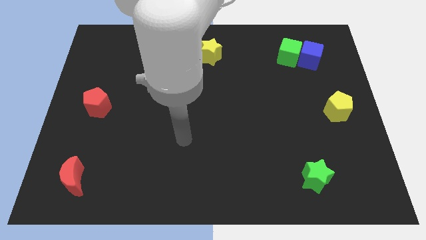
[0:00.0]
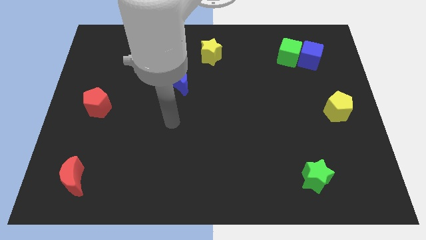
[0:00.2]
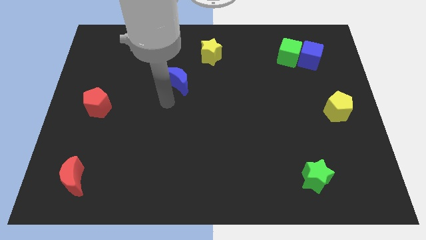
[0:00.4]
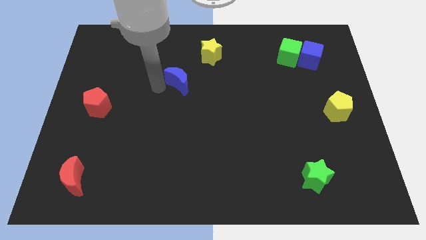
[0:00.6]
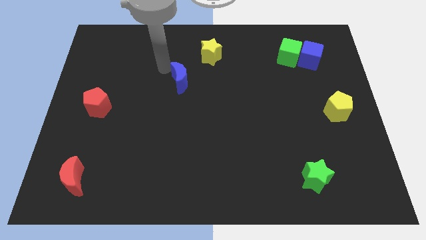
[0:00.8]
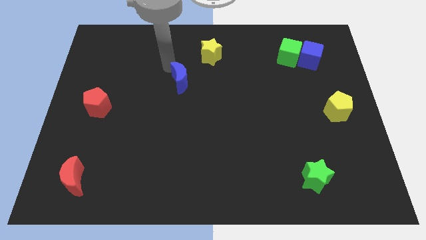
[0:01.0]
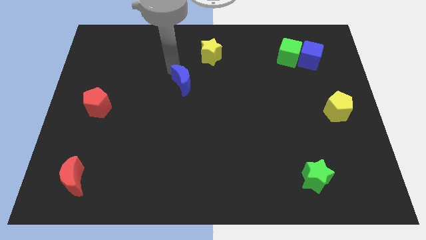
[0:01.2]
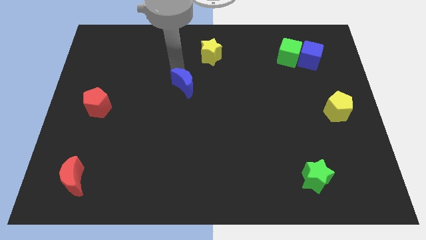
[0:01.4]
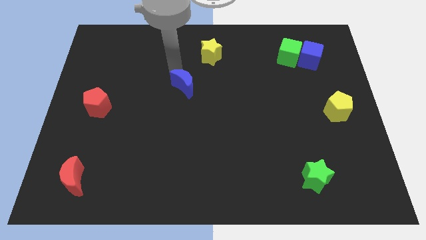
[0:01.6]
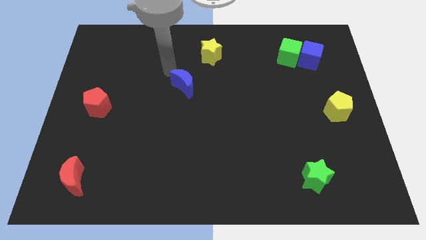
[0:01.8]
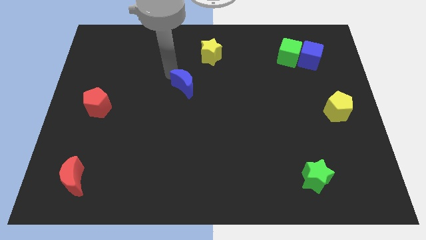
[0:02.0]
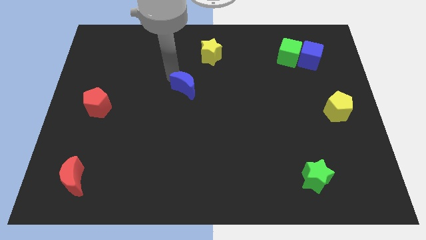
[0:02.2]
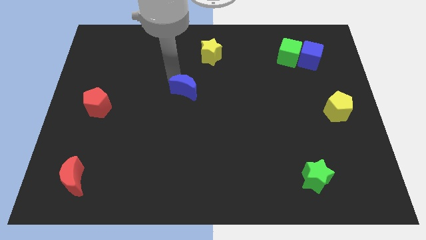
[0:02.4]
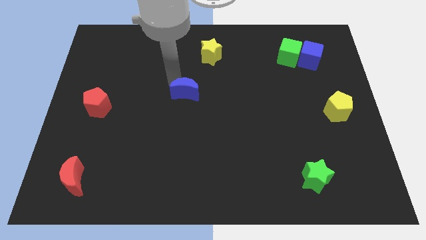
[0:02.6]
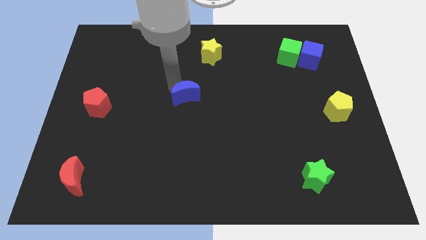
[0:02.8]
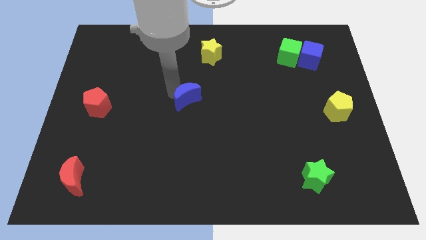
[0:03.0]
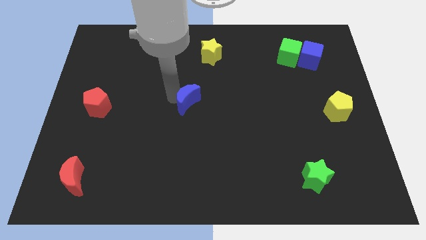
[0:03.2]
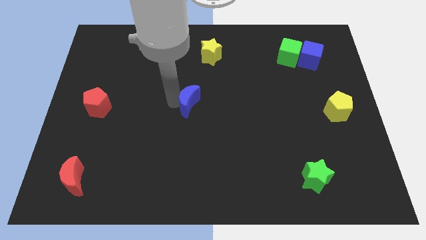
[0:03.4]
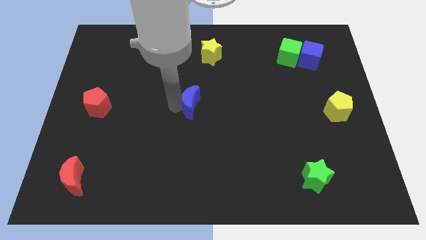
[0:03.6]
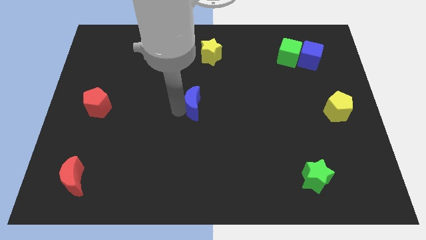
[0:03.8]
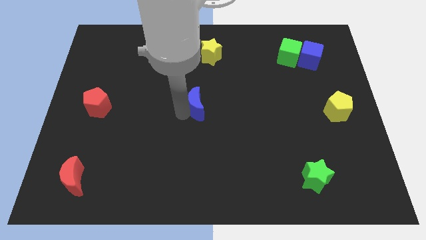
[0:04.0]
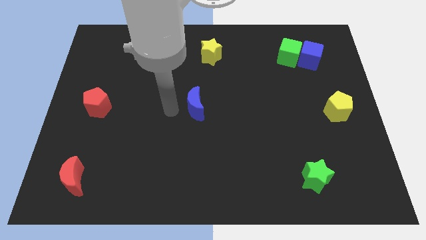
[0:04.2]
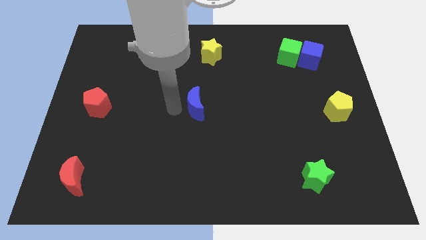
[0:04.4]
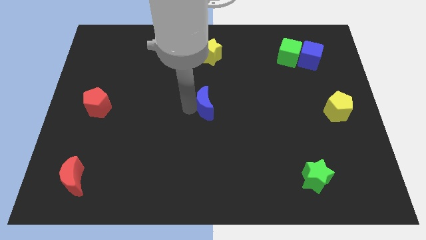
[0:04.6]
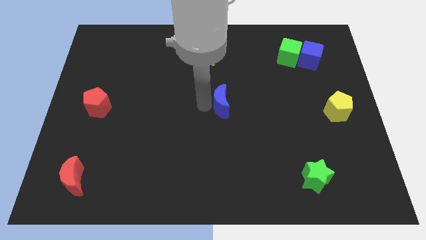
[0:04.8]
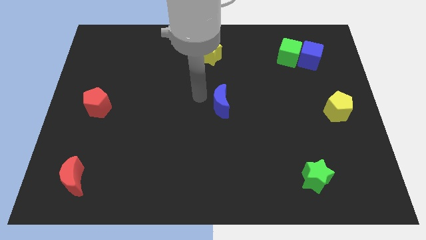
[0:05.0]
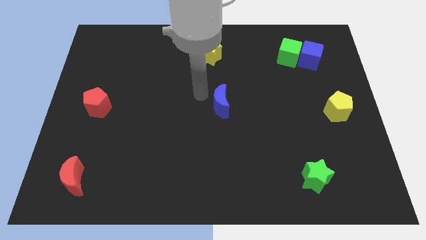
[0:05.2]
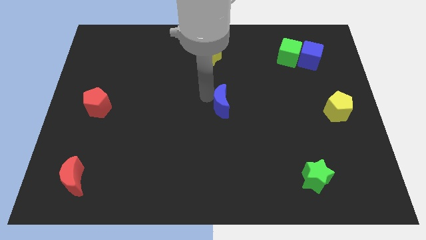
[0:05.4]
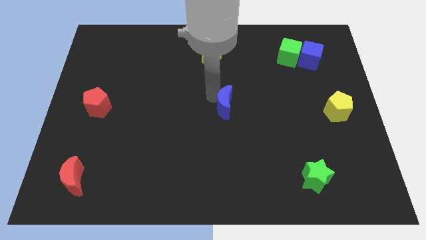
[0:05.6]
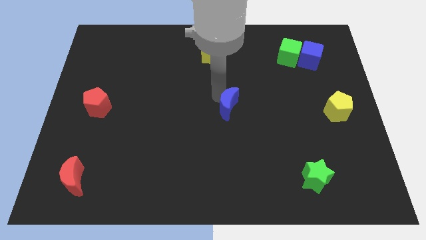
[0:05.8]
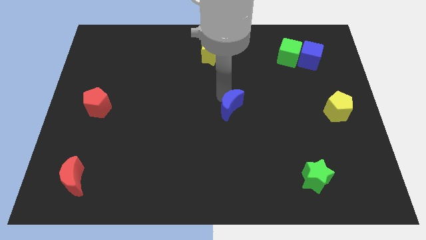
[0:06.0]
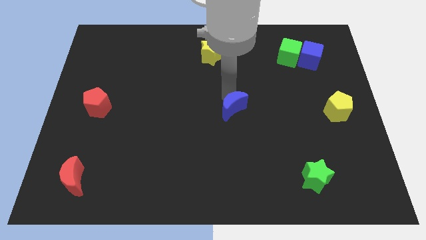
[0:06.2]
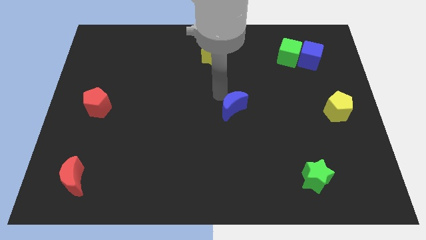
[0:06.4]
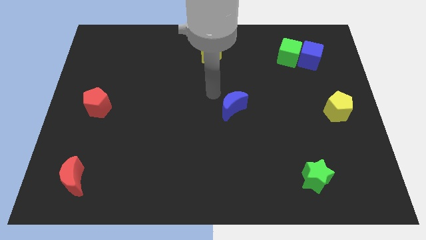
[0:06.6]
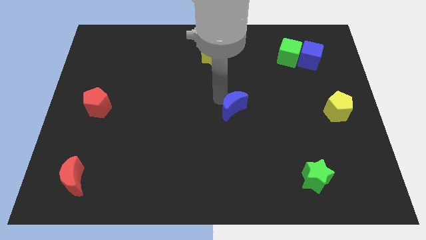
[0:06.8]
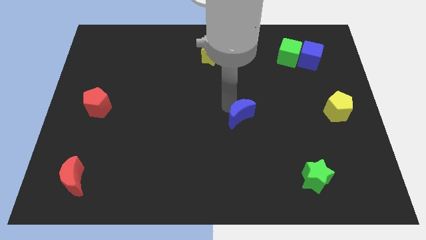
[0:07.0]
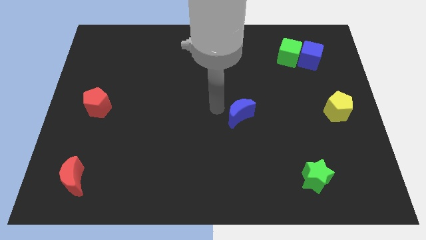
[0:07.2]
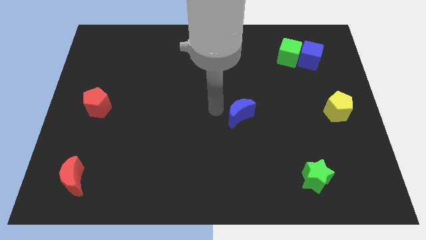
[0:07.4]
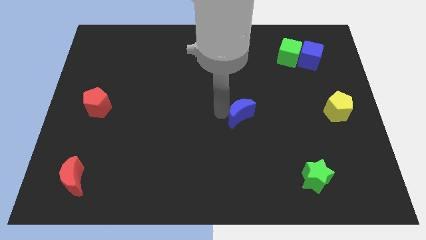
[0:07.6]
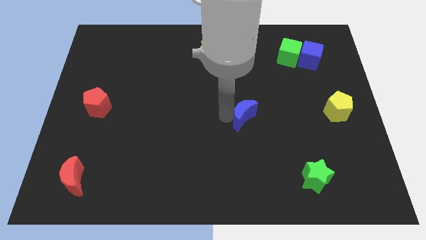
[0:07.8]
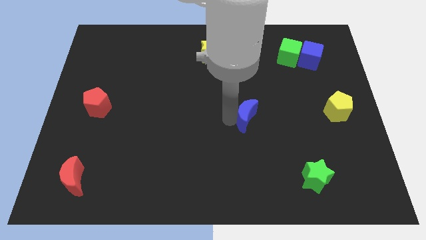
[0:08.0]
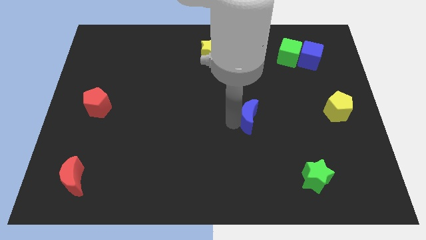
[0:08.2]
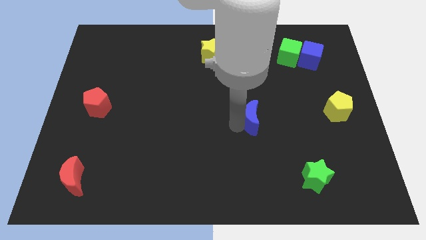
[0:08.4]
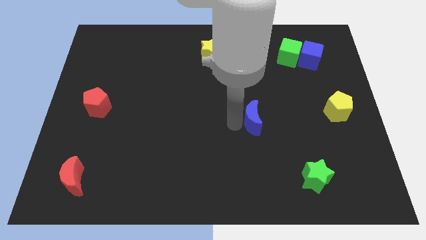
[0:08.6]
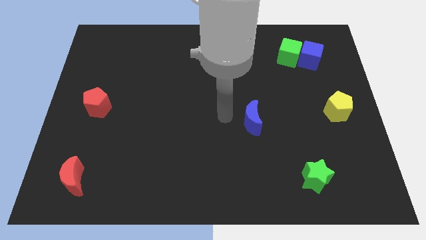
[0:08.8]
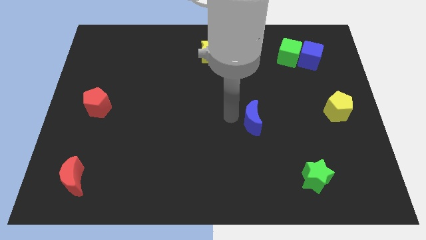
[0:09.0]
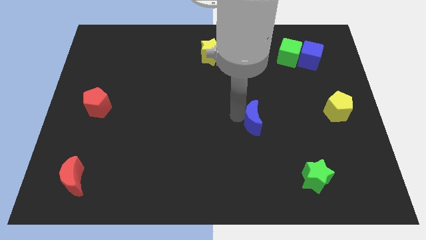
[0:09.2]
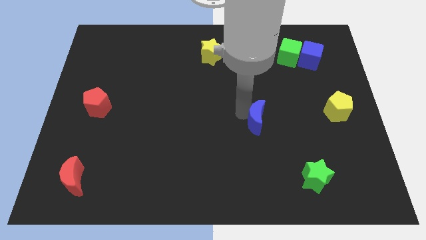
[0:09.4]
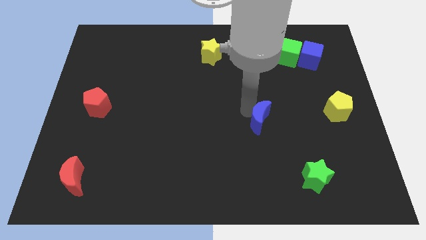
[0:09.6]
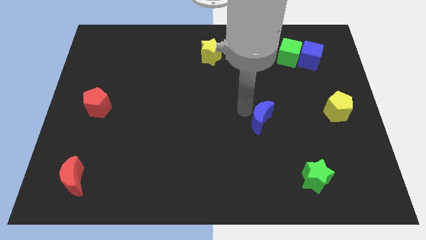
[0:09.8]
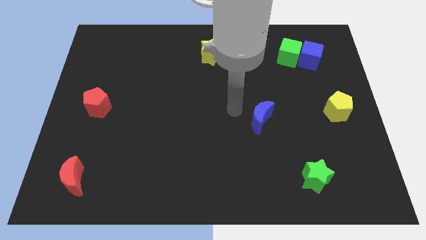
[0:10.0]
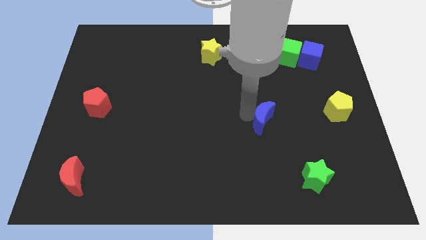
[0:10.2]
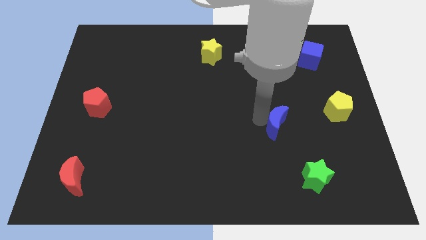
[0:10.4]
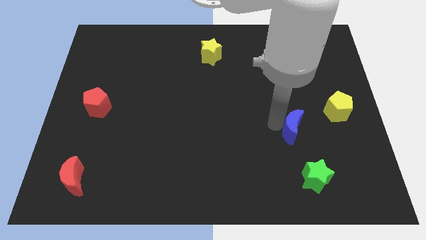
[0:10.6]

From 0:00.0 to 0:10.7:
push the blue moon to the top side of the green star
